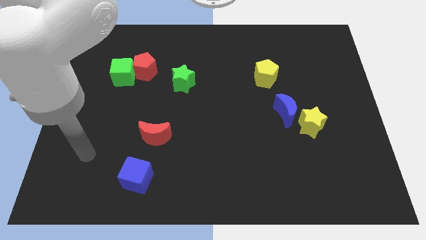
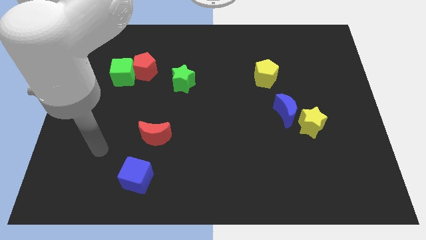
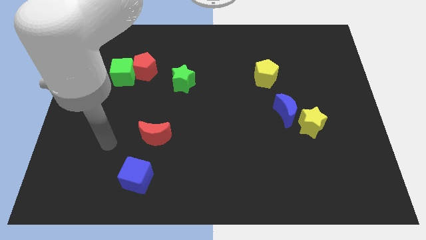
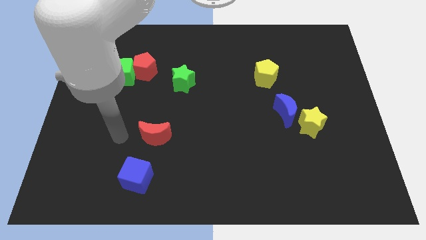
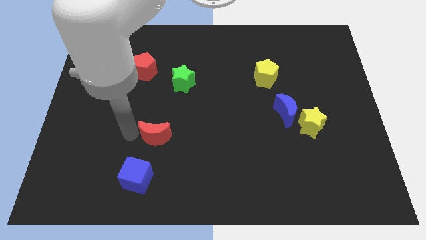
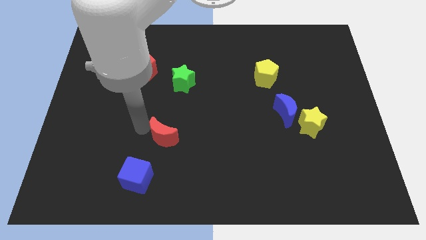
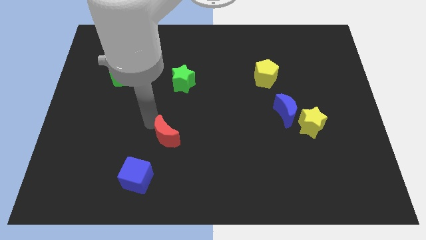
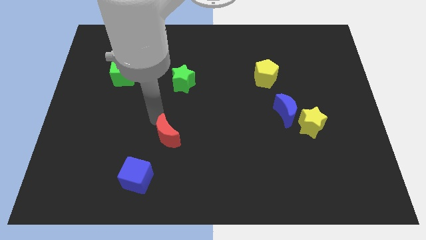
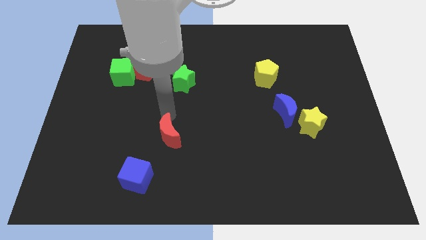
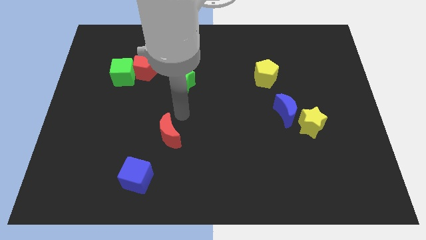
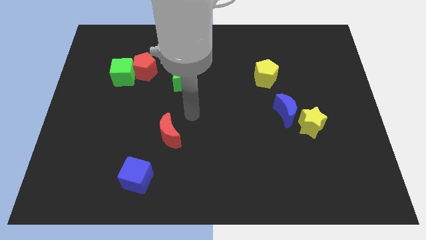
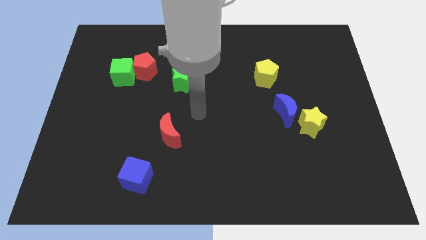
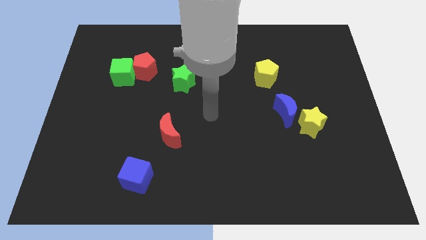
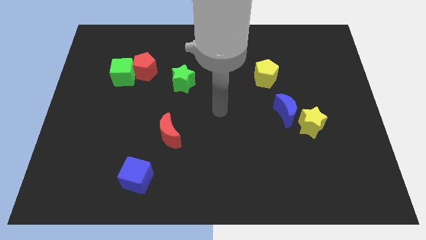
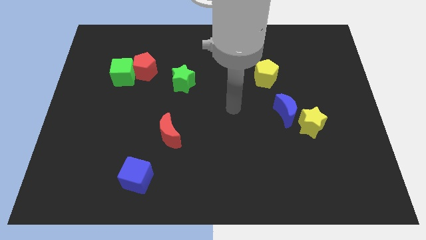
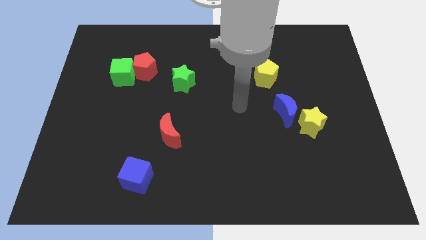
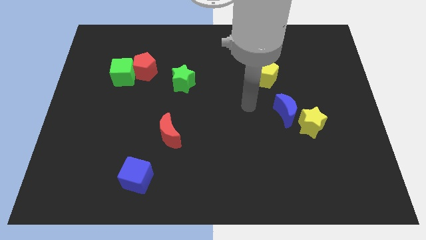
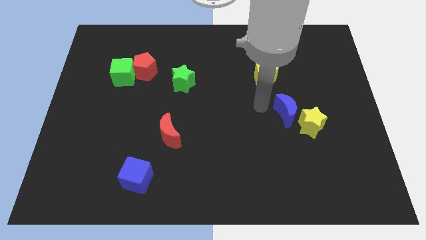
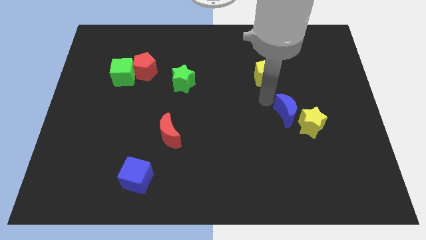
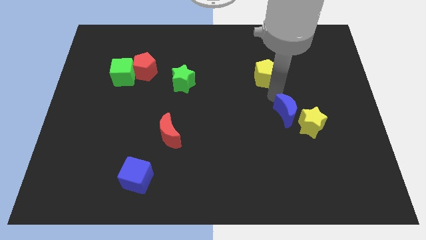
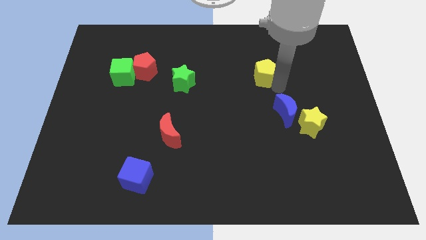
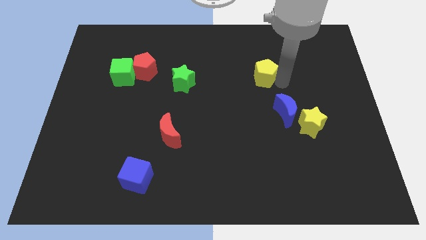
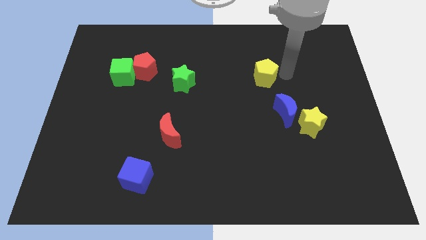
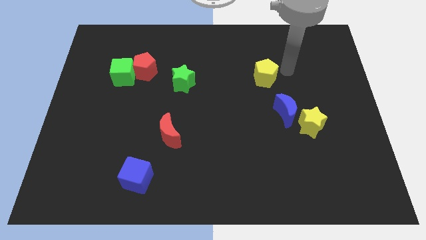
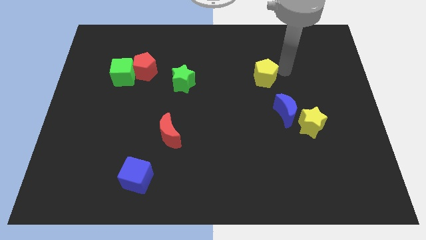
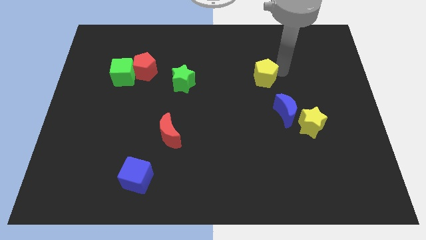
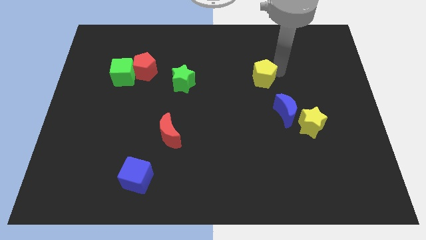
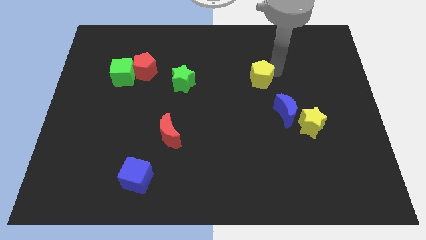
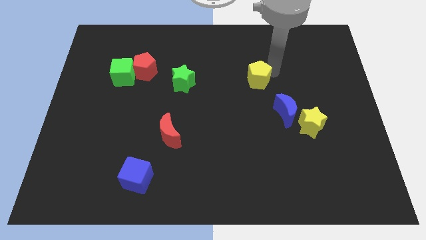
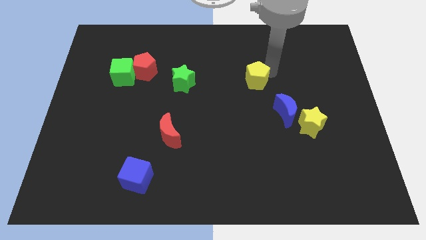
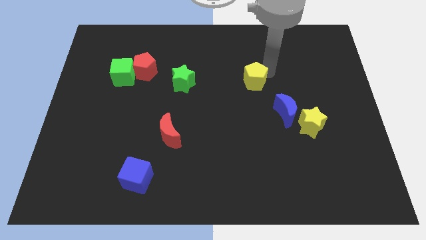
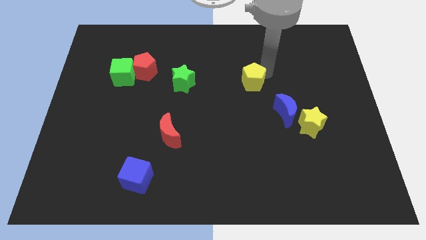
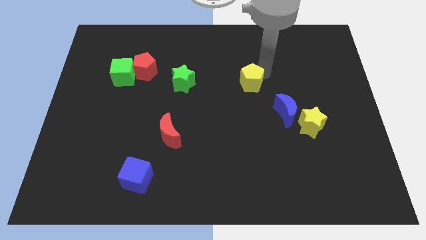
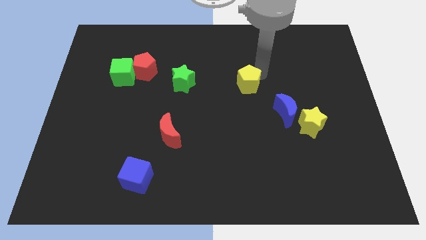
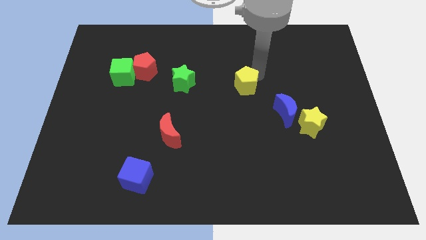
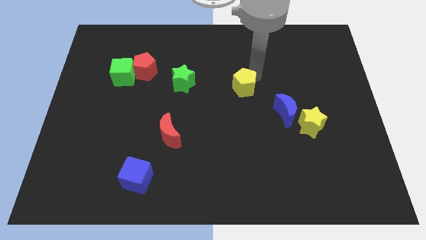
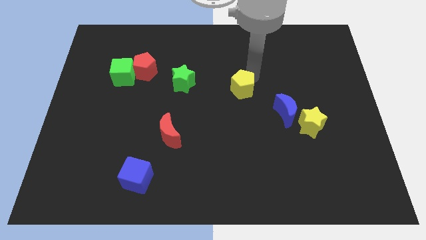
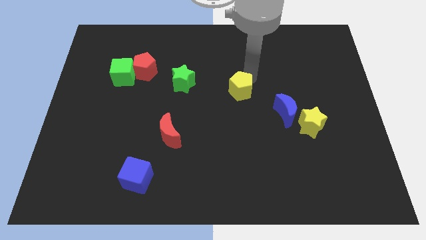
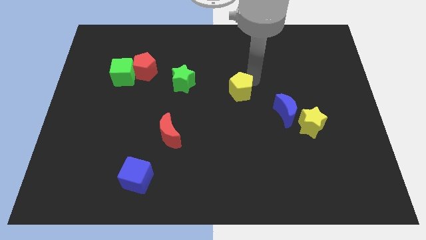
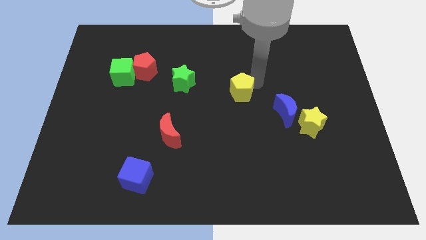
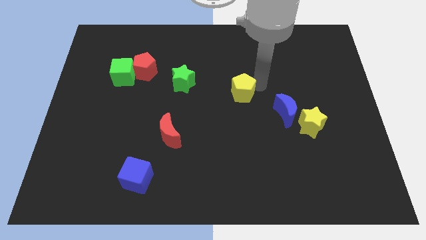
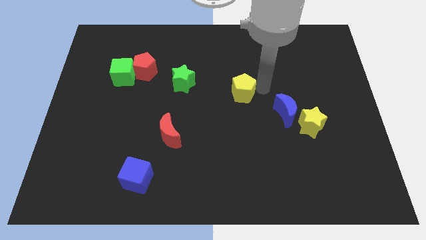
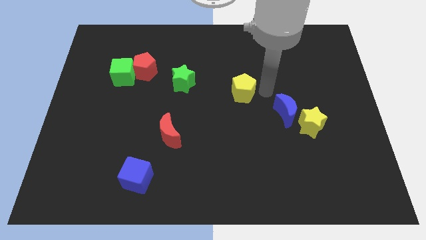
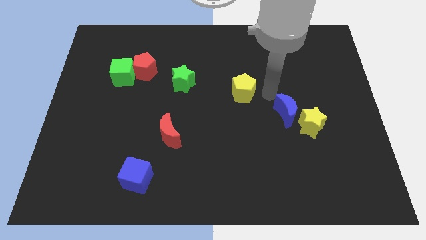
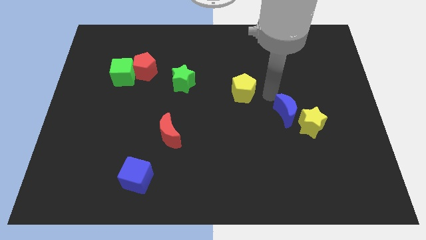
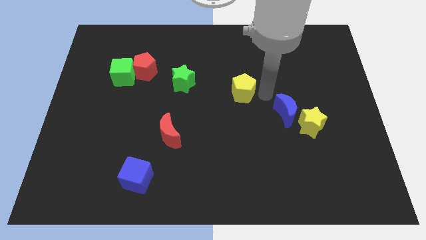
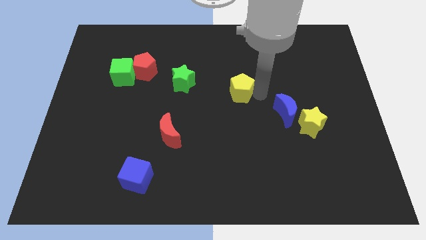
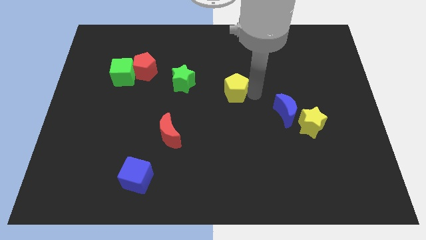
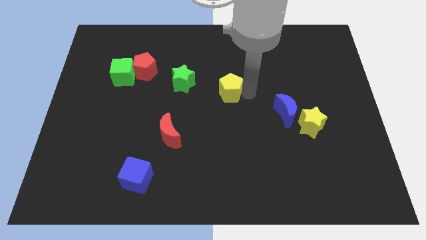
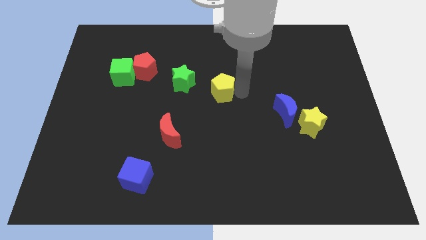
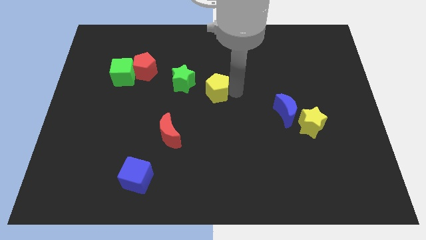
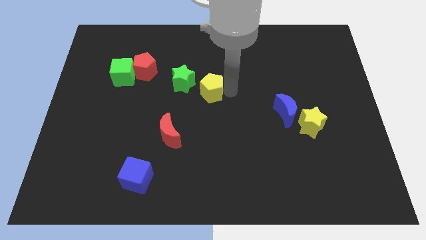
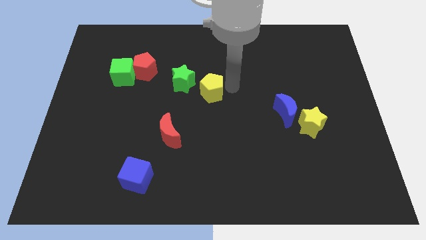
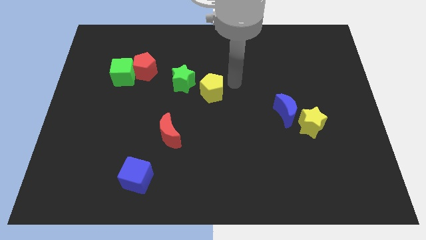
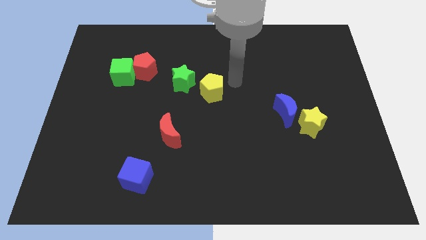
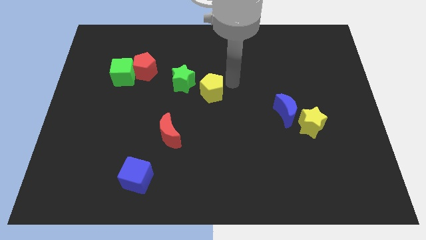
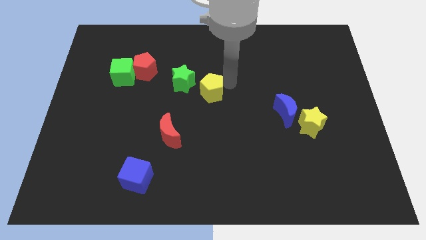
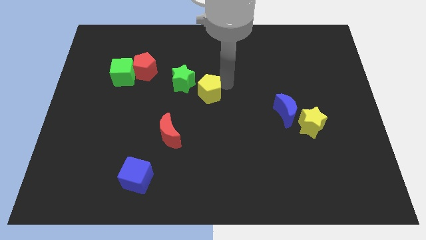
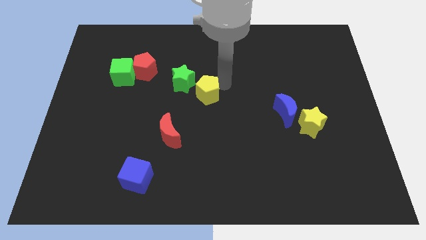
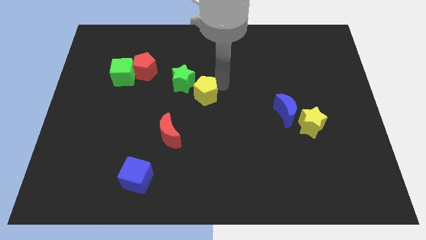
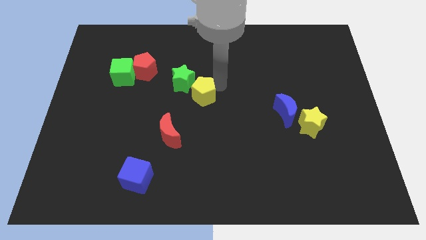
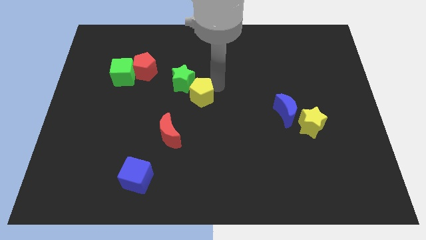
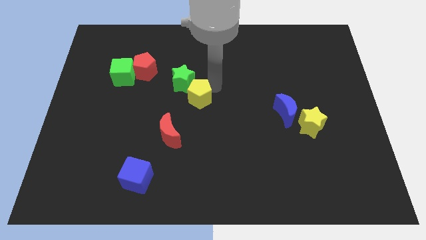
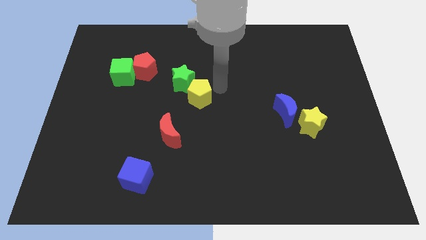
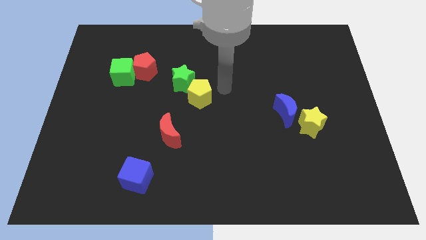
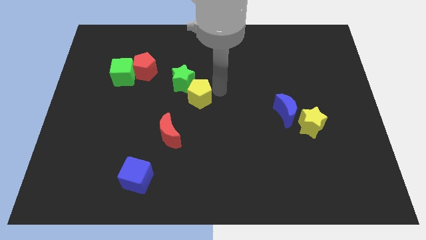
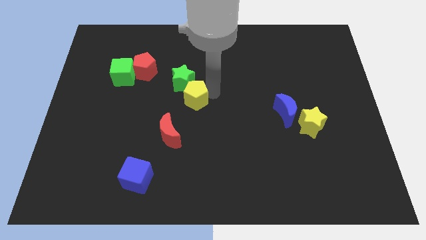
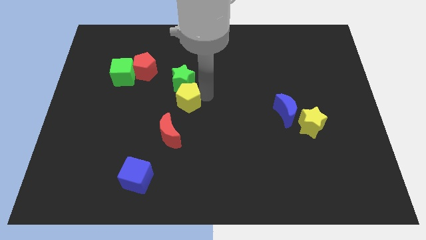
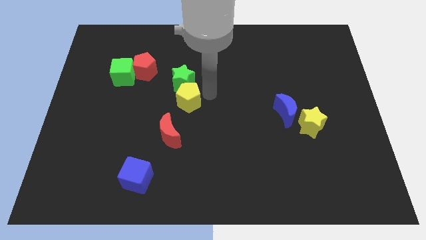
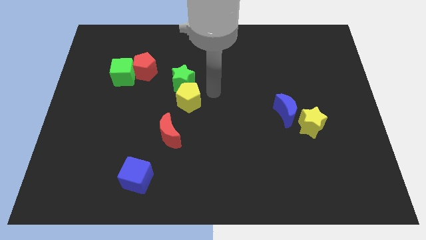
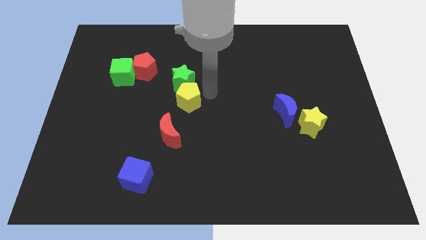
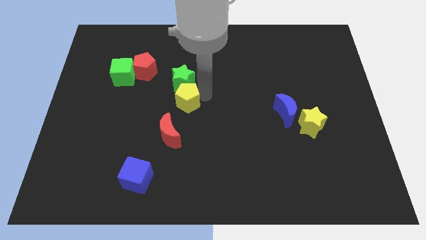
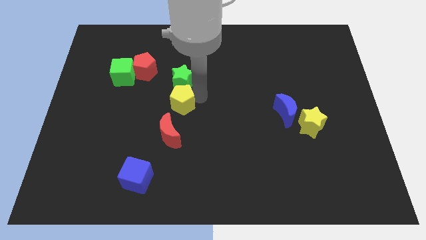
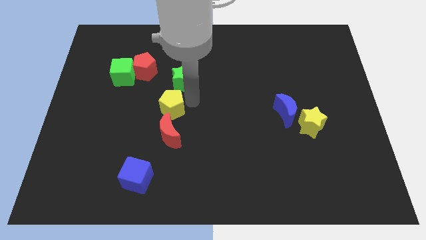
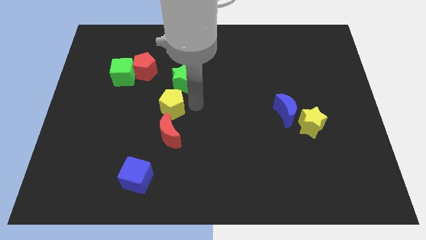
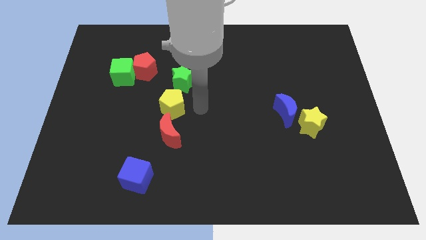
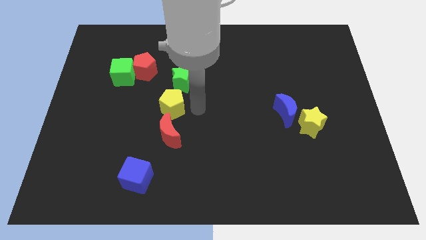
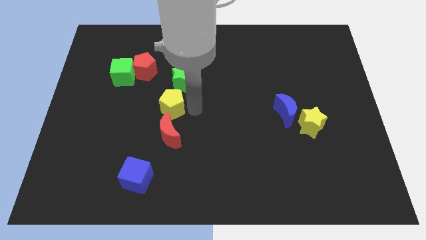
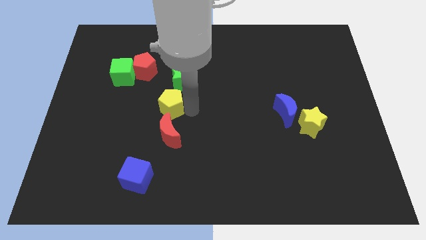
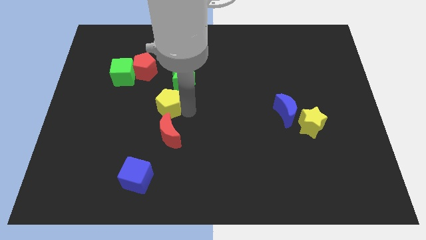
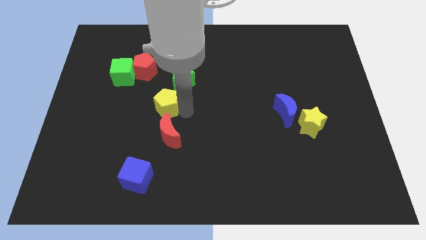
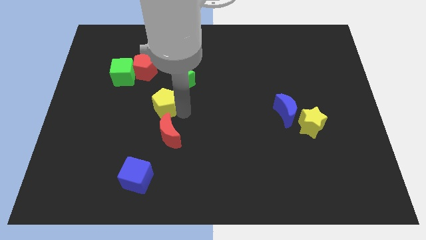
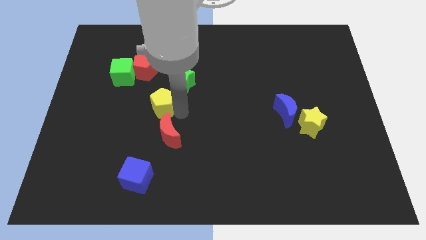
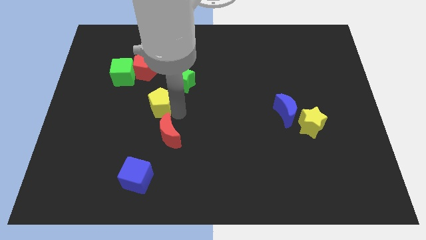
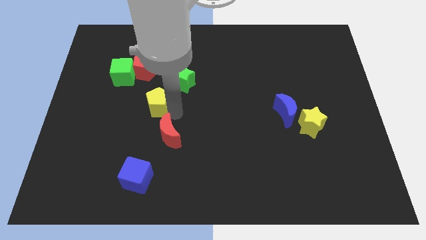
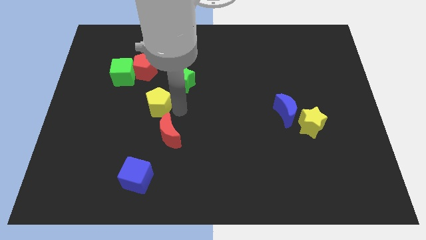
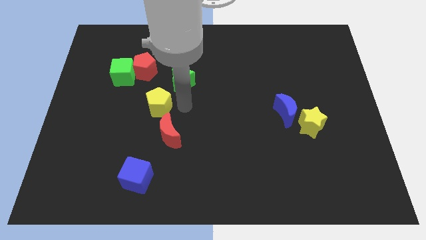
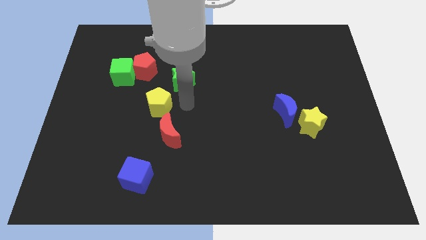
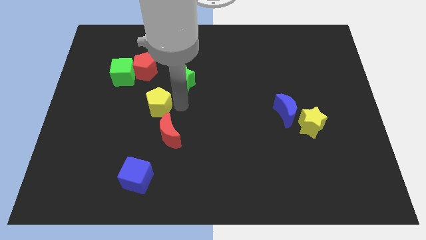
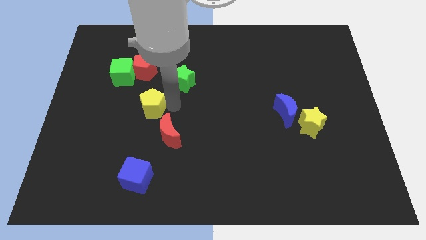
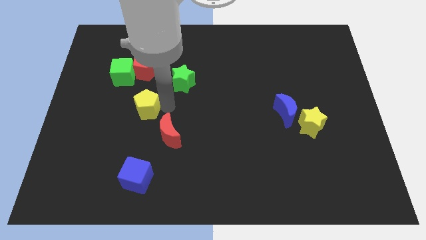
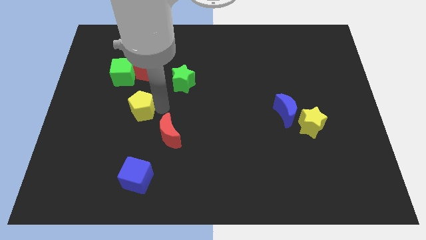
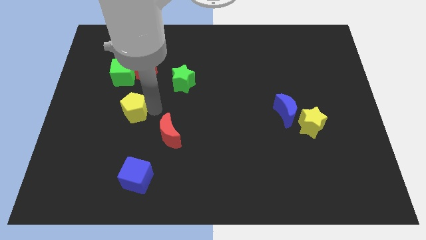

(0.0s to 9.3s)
put the yellow pentagon to the bottom of the green cube
